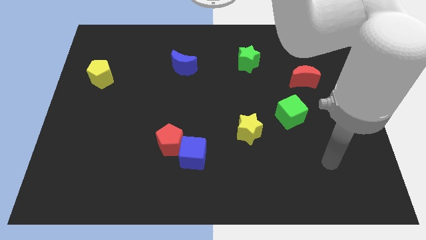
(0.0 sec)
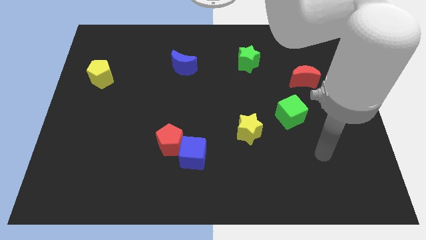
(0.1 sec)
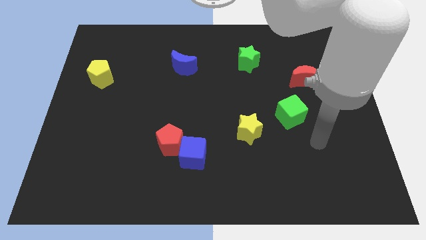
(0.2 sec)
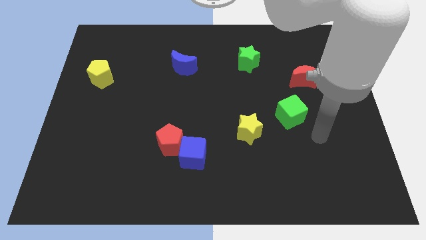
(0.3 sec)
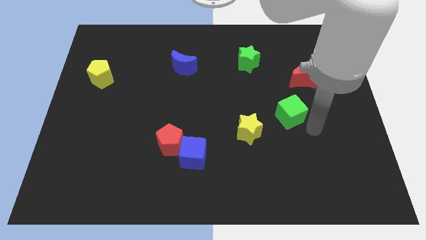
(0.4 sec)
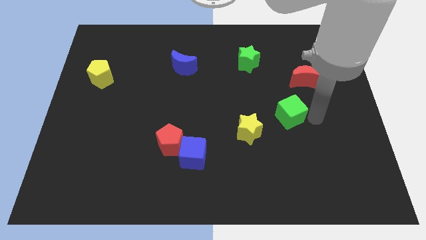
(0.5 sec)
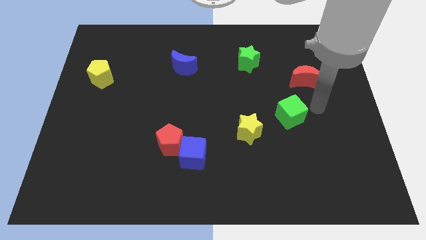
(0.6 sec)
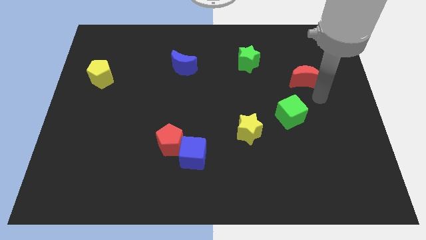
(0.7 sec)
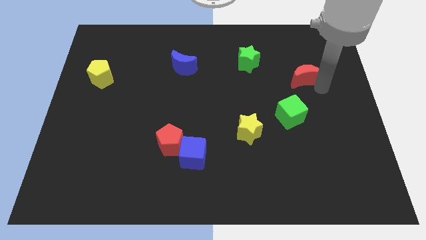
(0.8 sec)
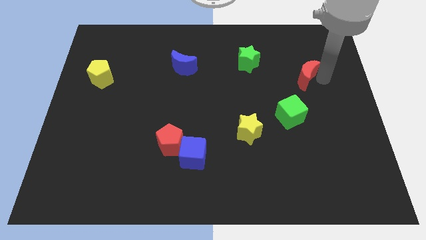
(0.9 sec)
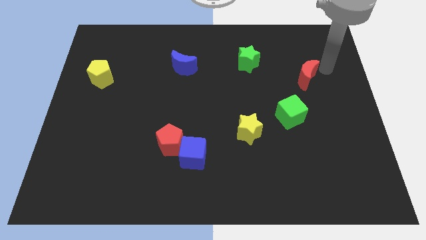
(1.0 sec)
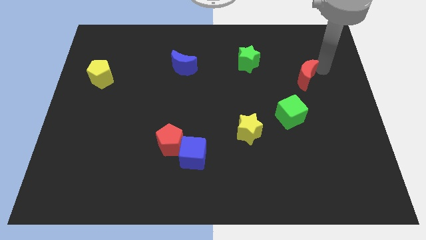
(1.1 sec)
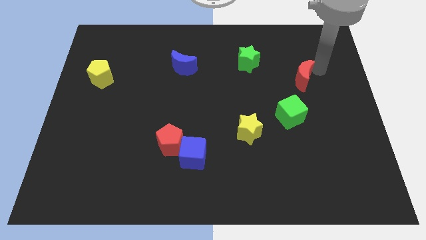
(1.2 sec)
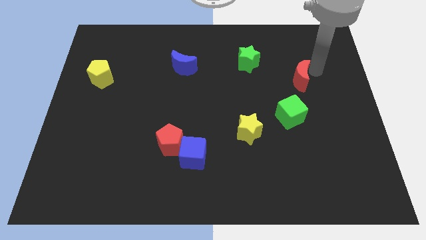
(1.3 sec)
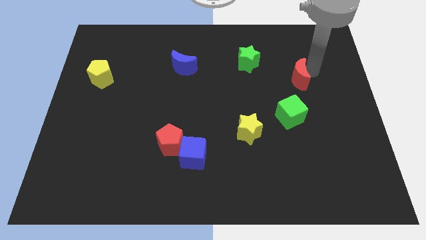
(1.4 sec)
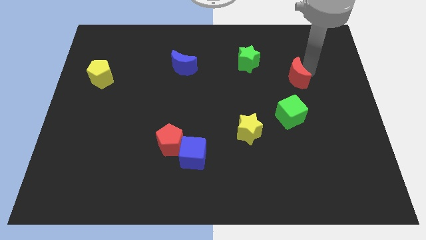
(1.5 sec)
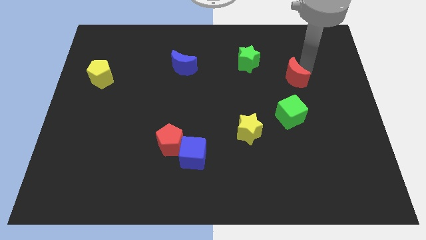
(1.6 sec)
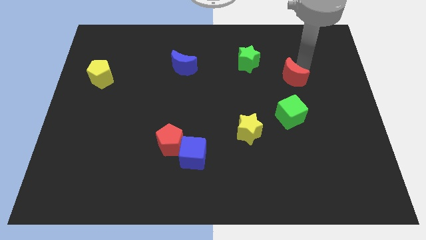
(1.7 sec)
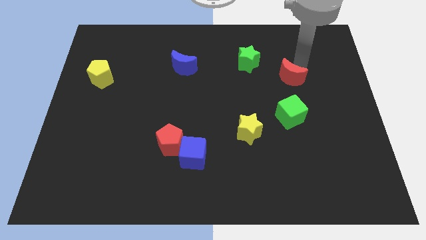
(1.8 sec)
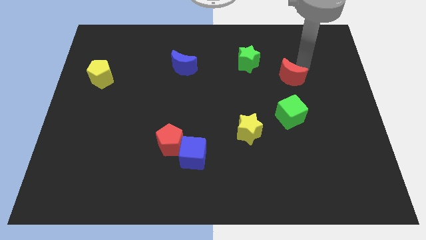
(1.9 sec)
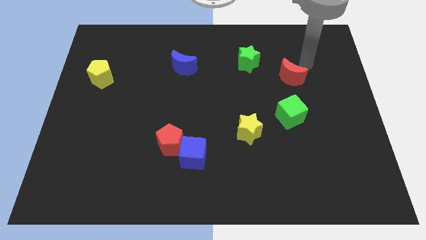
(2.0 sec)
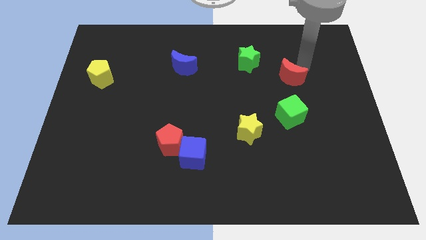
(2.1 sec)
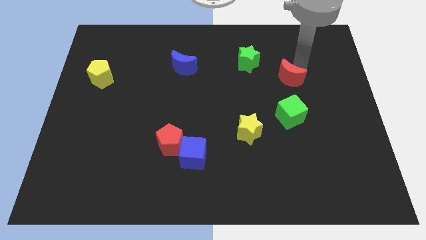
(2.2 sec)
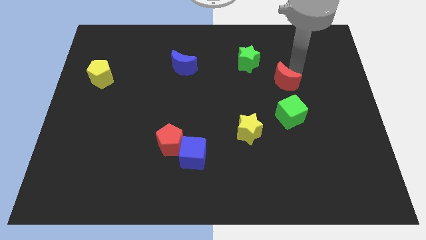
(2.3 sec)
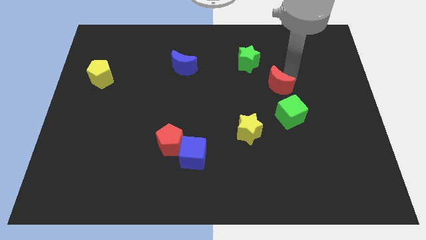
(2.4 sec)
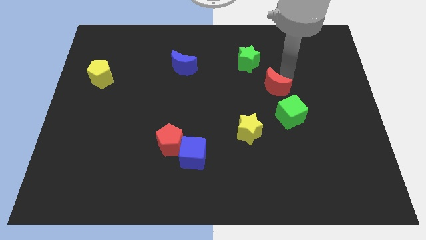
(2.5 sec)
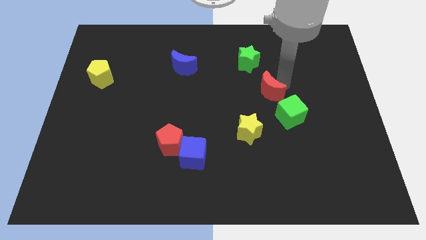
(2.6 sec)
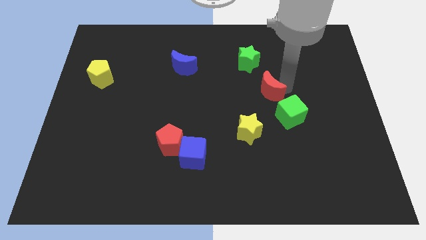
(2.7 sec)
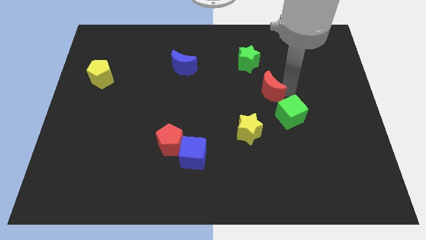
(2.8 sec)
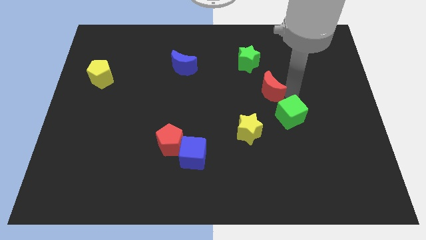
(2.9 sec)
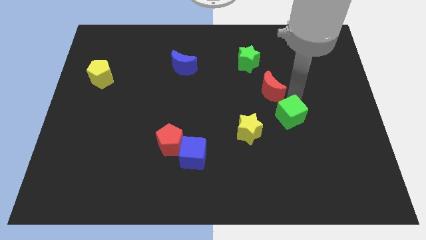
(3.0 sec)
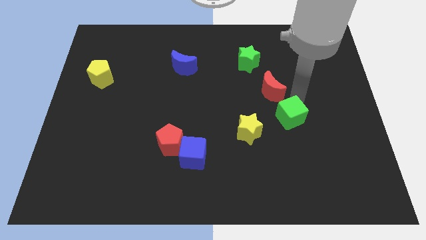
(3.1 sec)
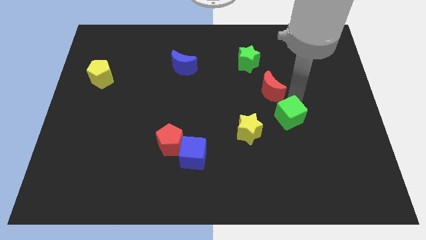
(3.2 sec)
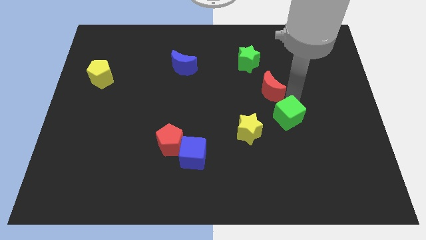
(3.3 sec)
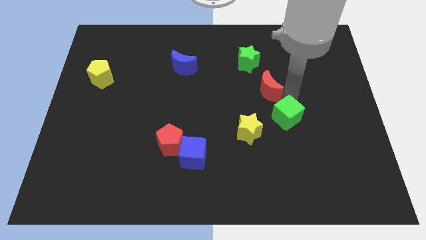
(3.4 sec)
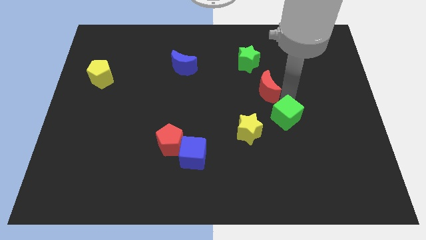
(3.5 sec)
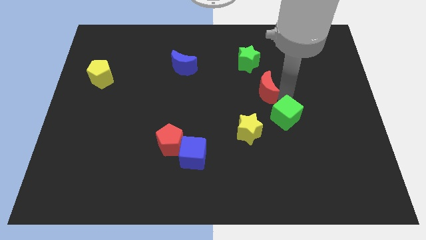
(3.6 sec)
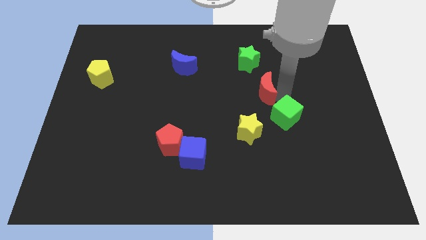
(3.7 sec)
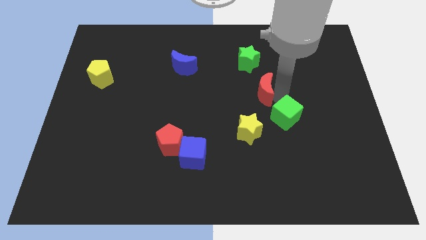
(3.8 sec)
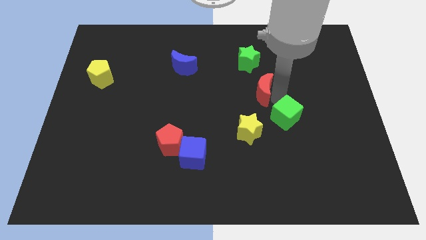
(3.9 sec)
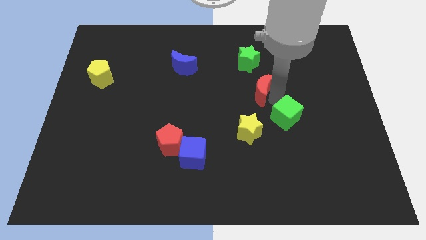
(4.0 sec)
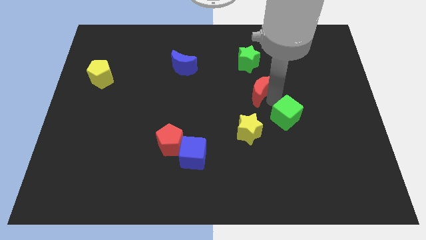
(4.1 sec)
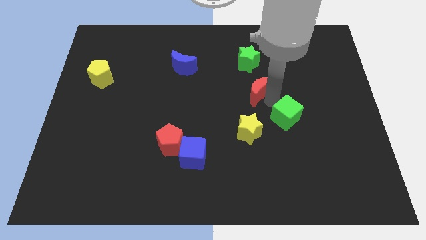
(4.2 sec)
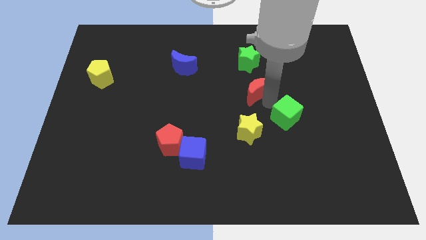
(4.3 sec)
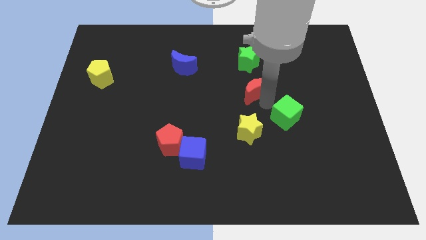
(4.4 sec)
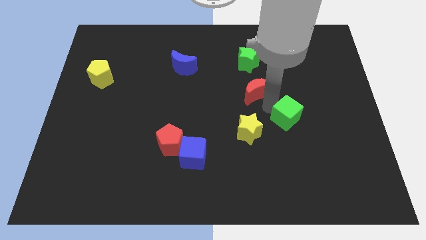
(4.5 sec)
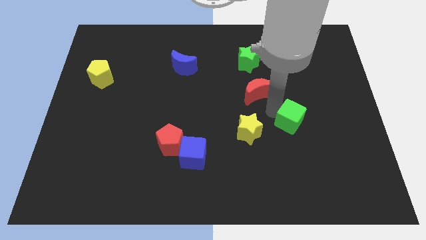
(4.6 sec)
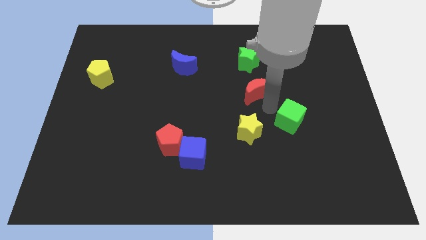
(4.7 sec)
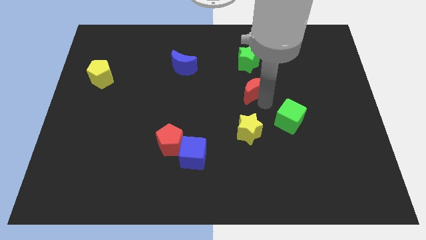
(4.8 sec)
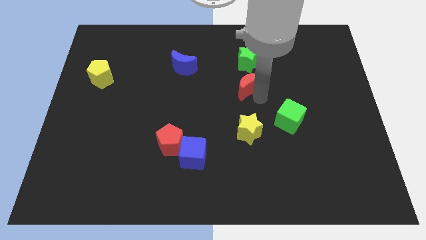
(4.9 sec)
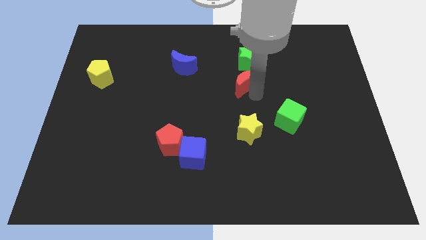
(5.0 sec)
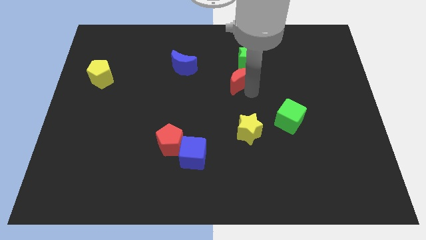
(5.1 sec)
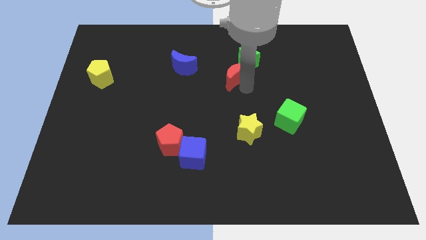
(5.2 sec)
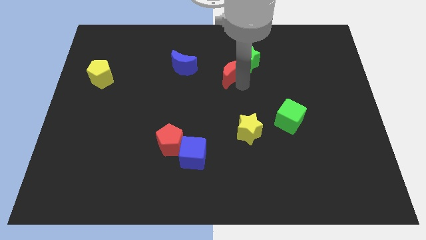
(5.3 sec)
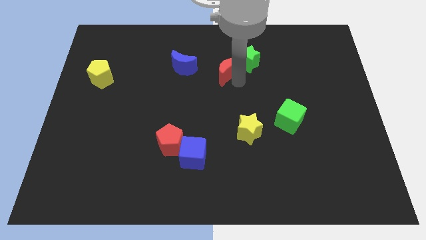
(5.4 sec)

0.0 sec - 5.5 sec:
put the red moon to the left side of the green star

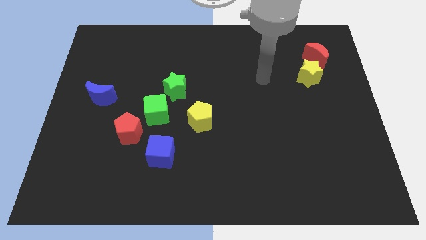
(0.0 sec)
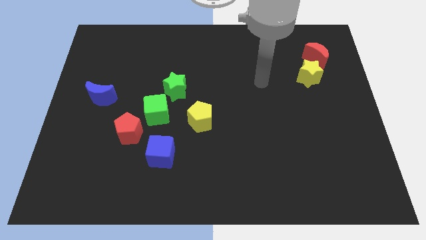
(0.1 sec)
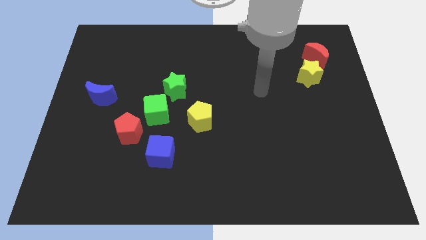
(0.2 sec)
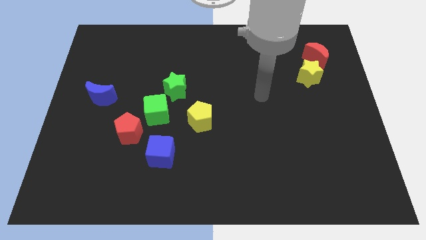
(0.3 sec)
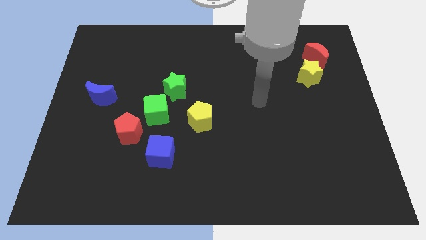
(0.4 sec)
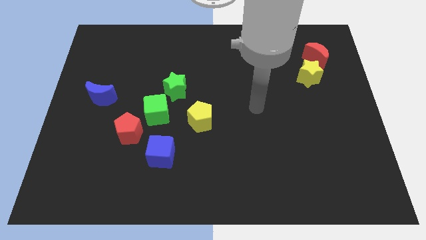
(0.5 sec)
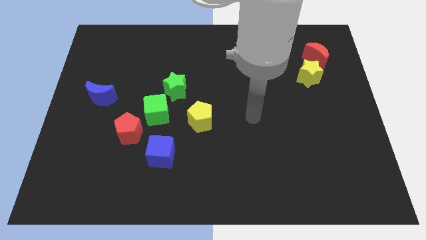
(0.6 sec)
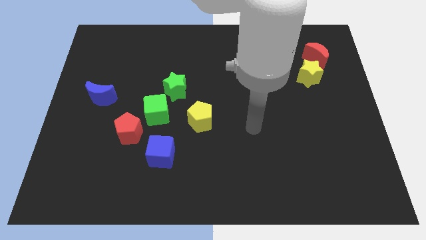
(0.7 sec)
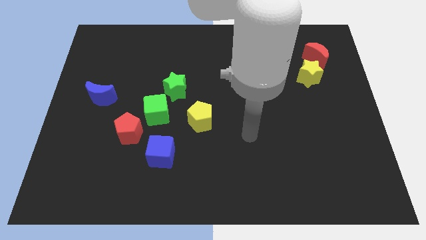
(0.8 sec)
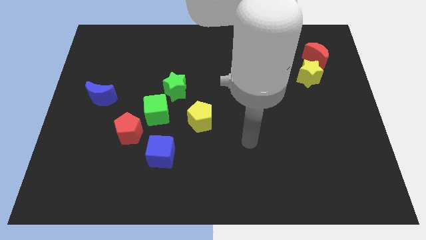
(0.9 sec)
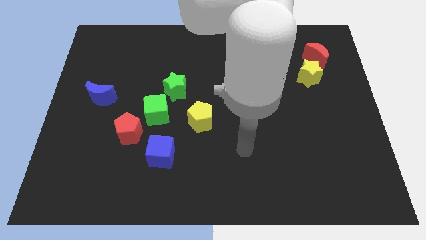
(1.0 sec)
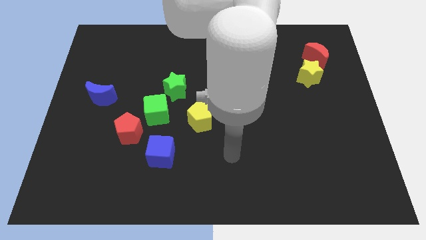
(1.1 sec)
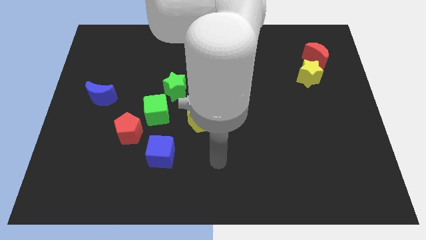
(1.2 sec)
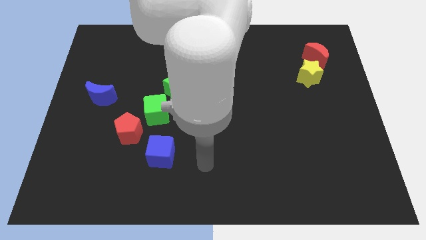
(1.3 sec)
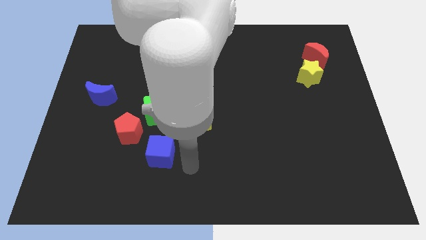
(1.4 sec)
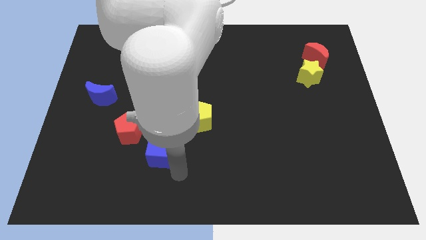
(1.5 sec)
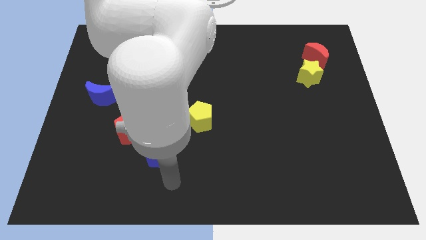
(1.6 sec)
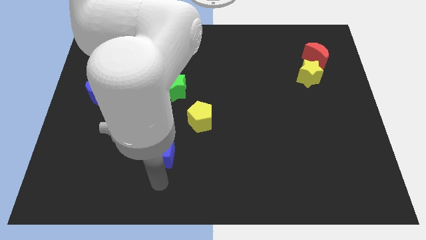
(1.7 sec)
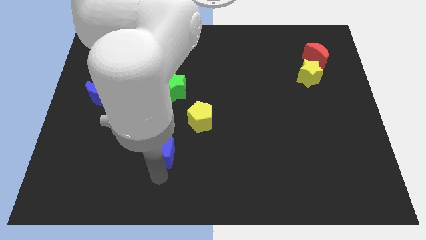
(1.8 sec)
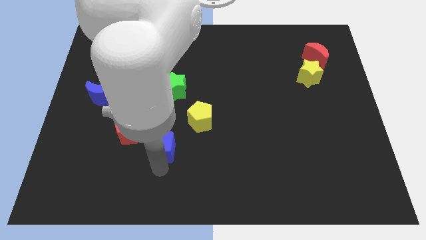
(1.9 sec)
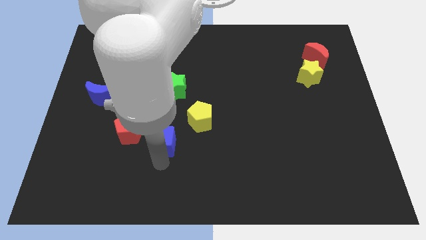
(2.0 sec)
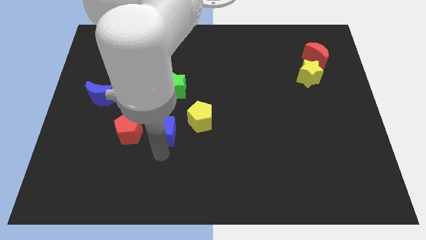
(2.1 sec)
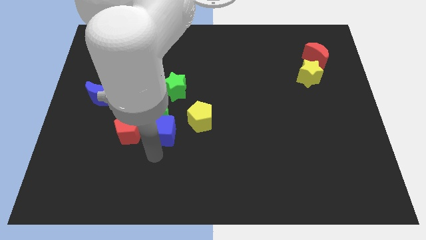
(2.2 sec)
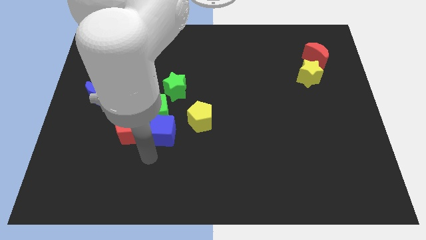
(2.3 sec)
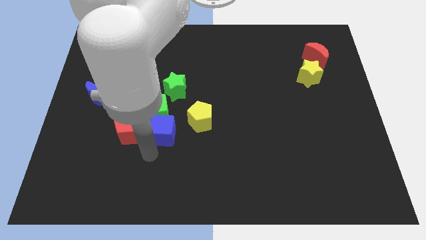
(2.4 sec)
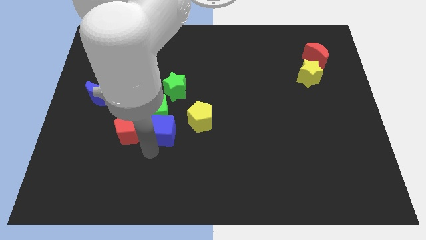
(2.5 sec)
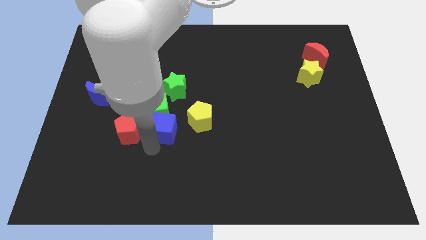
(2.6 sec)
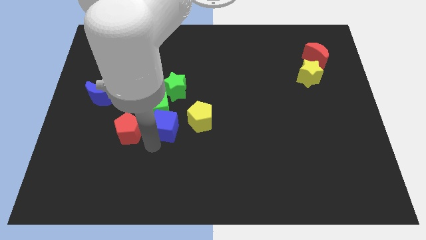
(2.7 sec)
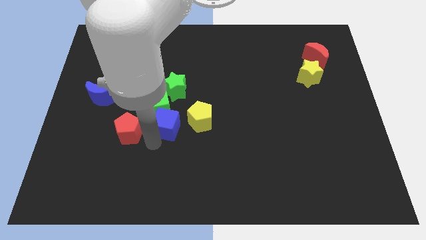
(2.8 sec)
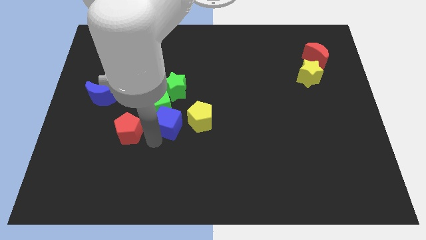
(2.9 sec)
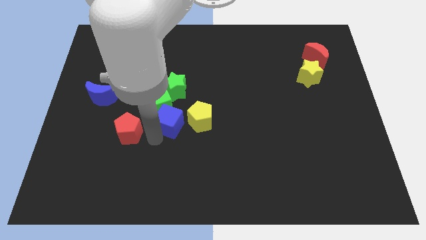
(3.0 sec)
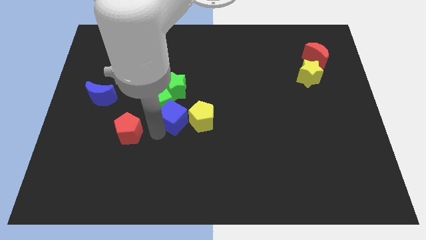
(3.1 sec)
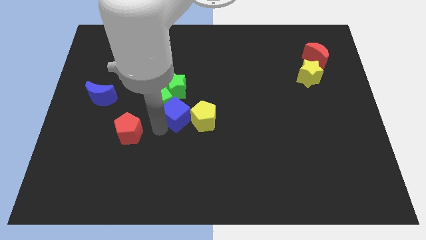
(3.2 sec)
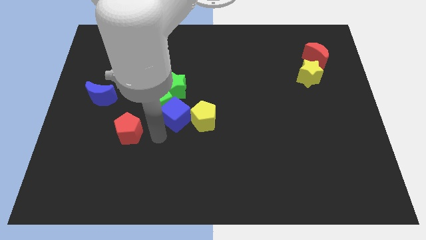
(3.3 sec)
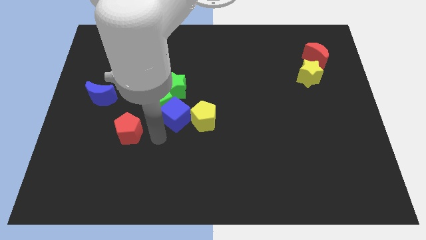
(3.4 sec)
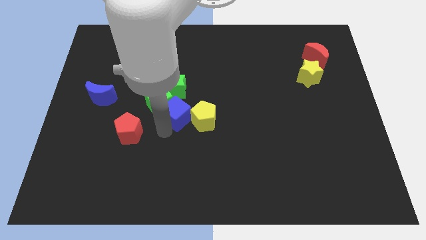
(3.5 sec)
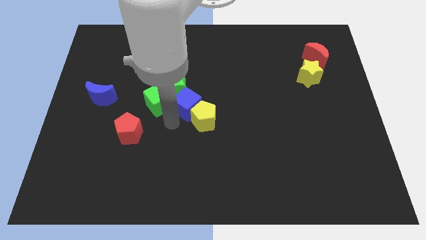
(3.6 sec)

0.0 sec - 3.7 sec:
put the blue cube to the top side of the yellow pentagon
